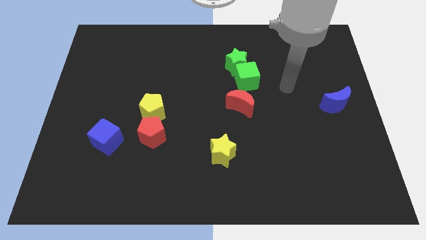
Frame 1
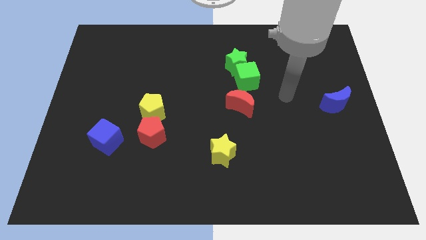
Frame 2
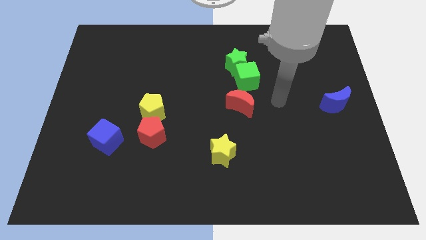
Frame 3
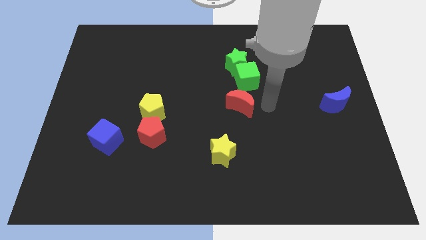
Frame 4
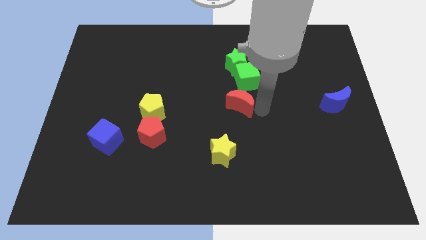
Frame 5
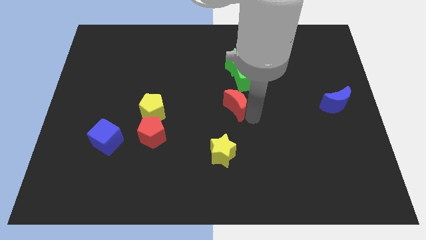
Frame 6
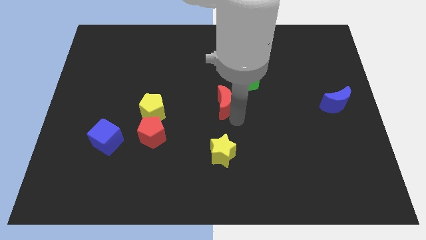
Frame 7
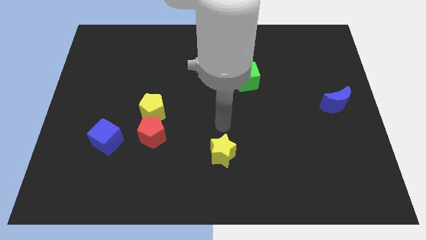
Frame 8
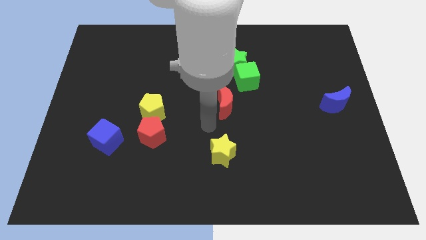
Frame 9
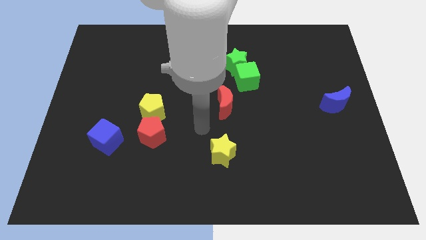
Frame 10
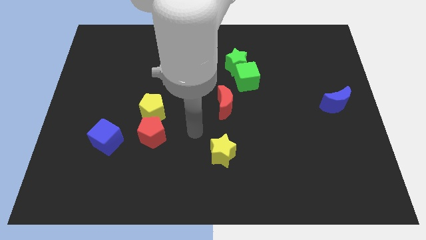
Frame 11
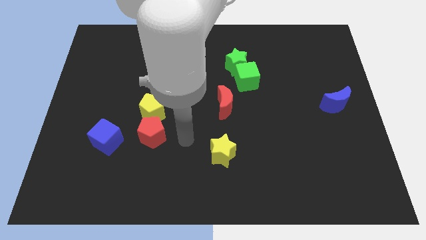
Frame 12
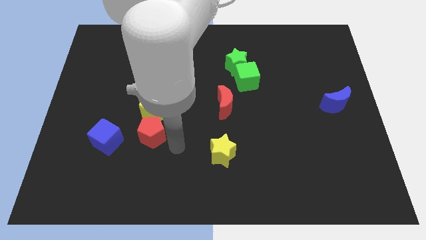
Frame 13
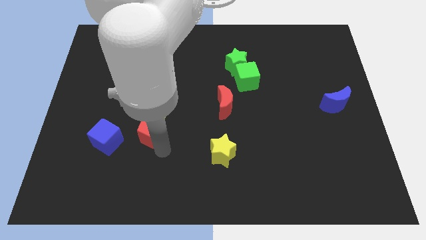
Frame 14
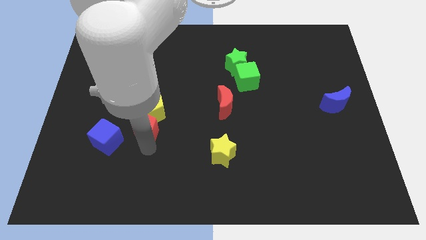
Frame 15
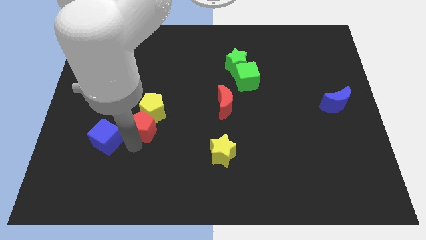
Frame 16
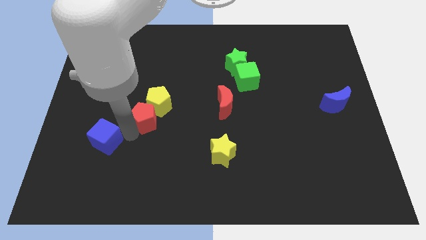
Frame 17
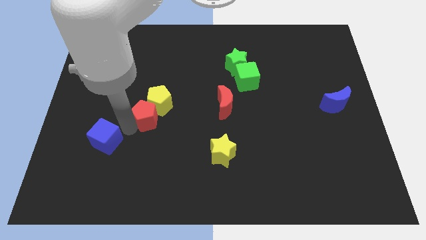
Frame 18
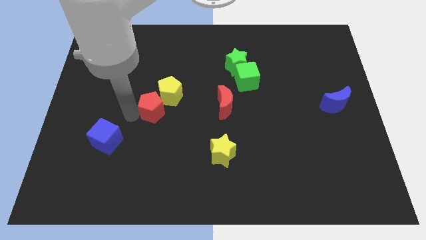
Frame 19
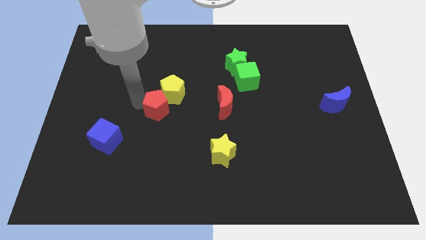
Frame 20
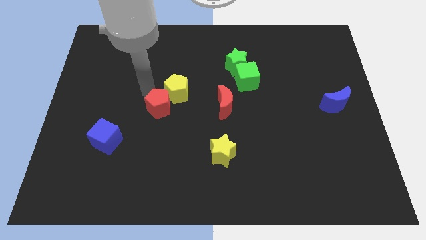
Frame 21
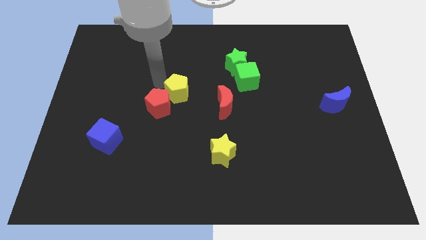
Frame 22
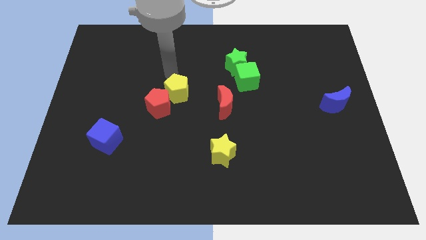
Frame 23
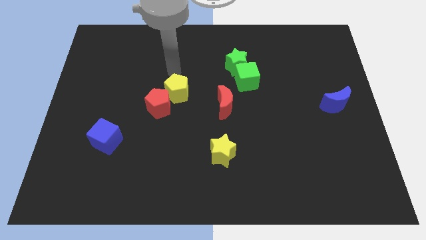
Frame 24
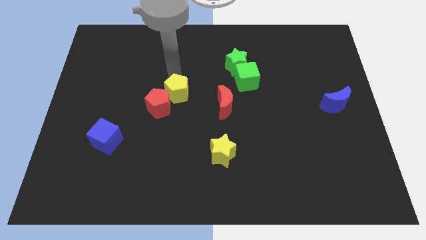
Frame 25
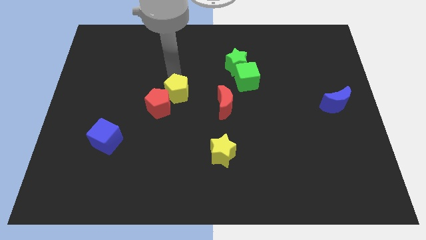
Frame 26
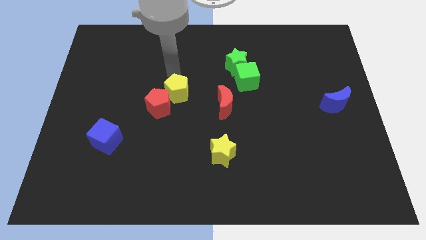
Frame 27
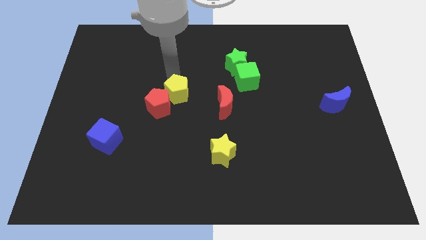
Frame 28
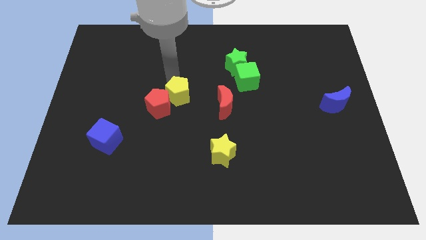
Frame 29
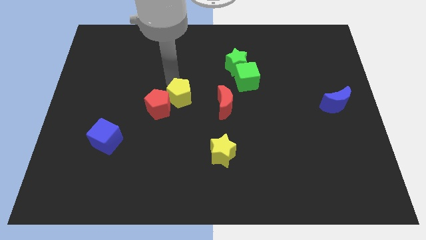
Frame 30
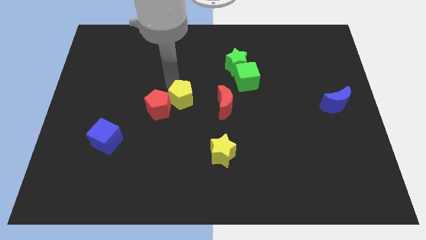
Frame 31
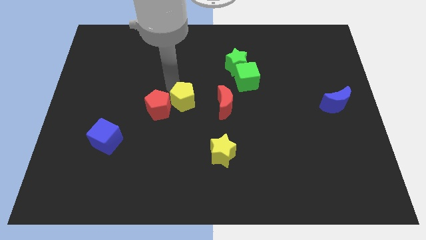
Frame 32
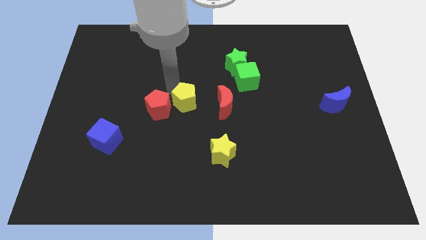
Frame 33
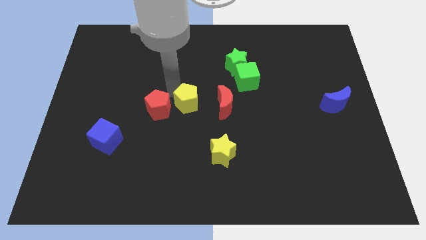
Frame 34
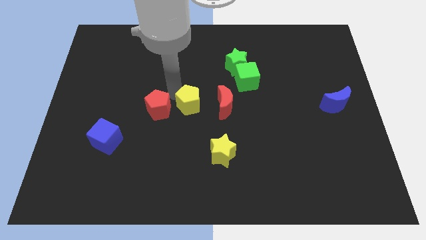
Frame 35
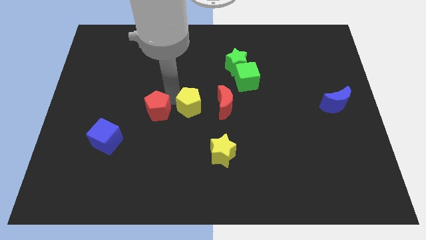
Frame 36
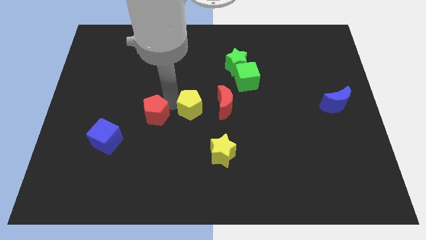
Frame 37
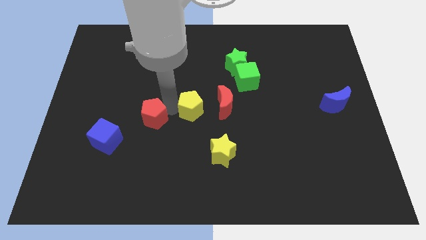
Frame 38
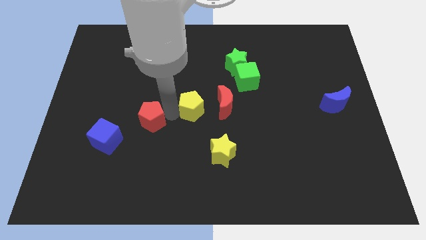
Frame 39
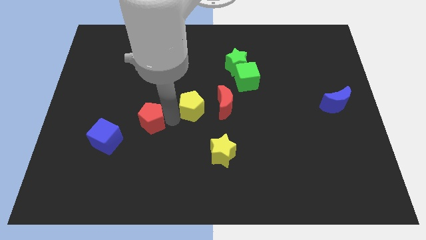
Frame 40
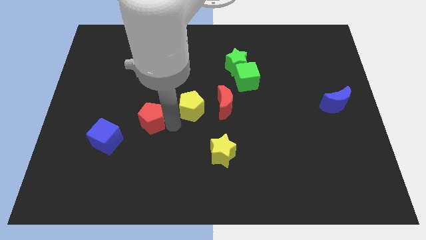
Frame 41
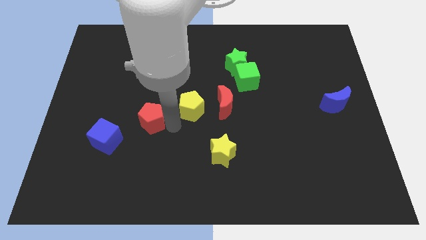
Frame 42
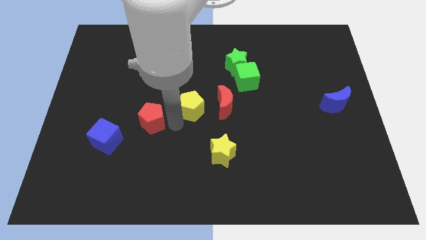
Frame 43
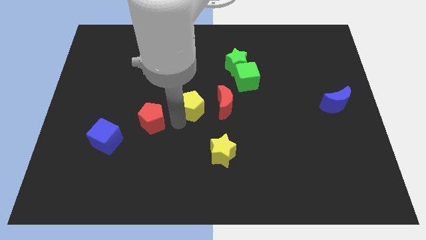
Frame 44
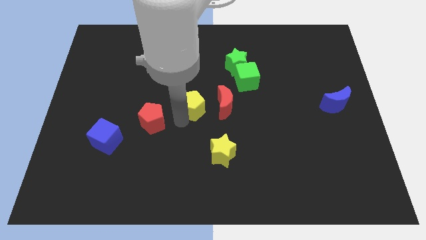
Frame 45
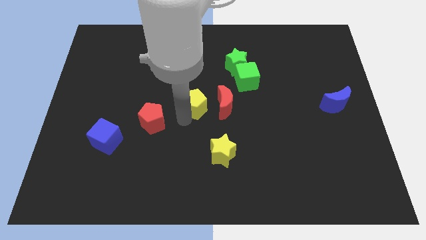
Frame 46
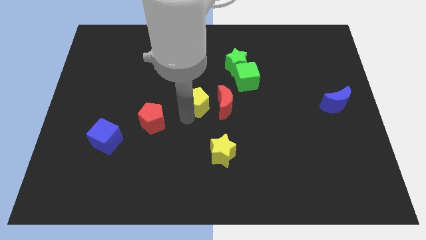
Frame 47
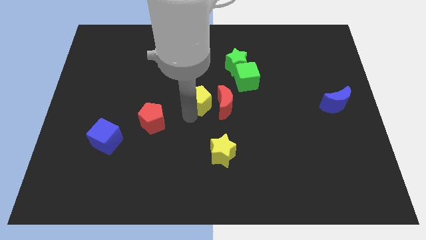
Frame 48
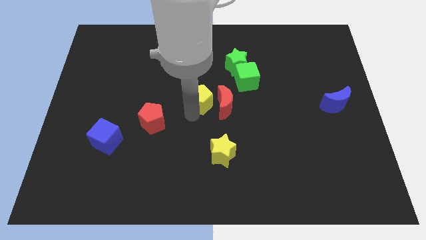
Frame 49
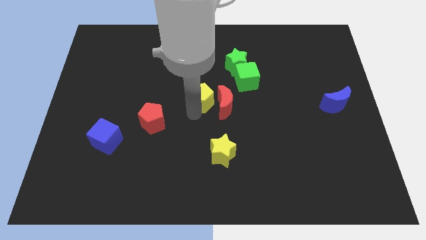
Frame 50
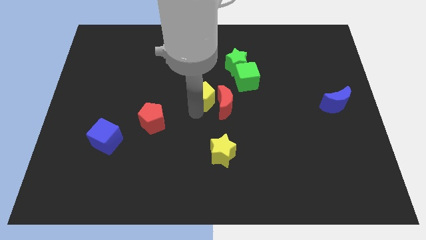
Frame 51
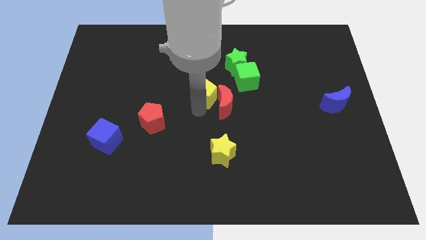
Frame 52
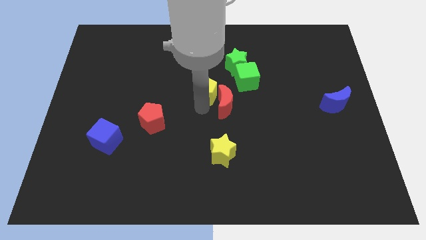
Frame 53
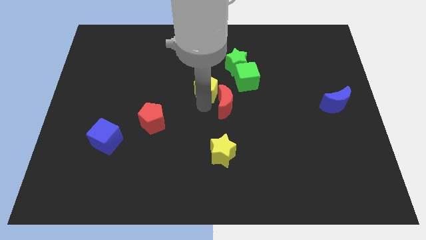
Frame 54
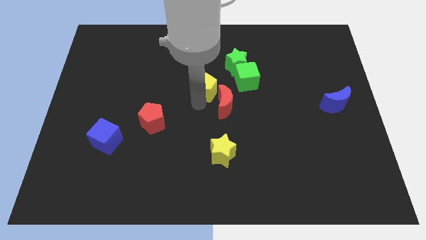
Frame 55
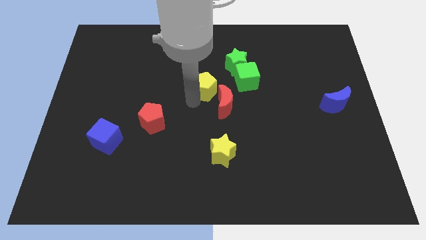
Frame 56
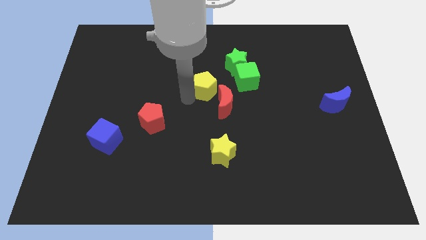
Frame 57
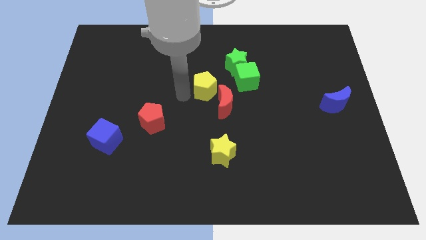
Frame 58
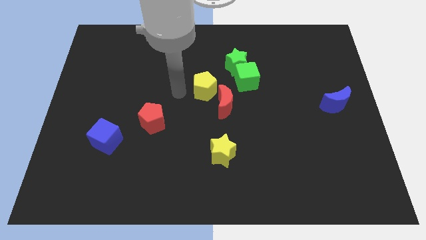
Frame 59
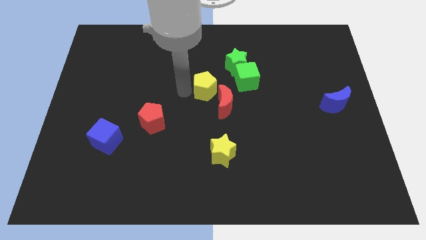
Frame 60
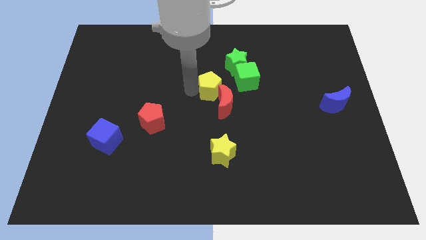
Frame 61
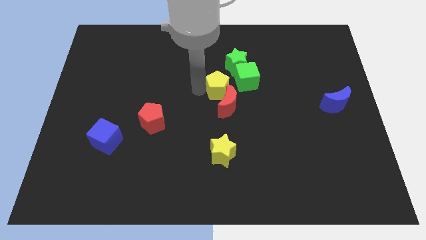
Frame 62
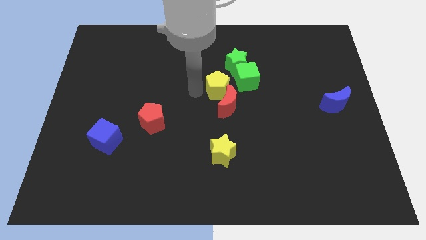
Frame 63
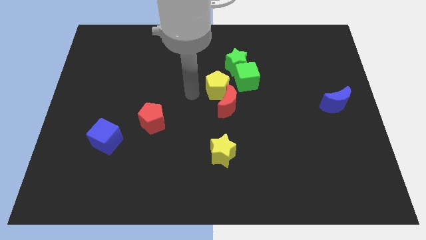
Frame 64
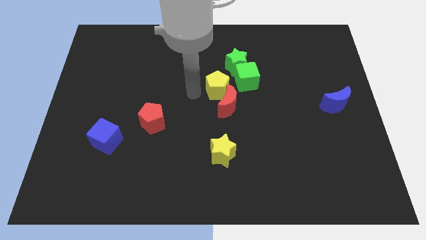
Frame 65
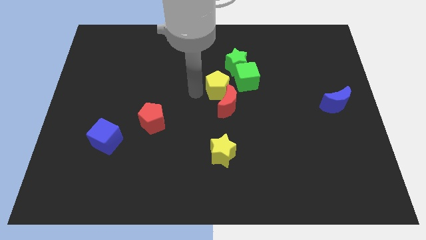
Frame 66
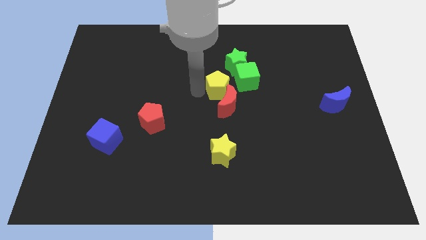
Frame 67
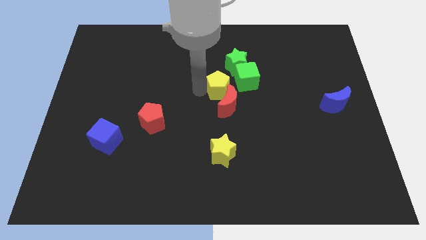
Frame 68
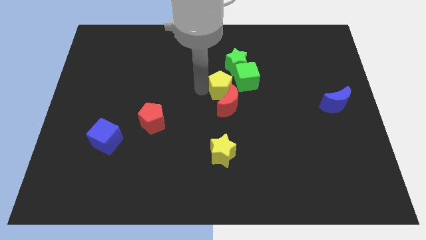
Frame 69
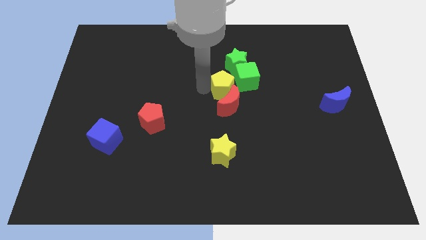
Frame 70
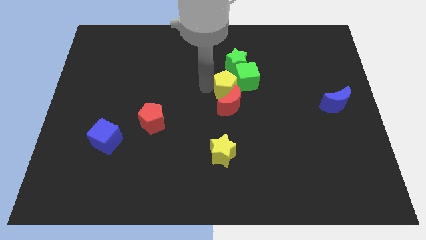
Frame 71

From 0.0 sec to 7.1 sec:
move the yellow pentagon close to the green cube

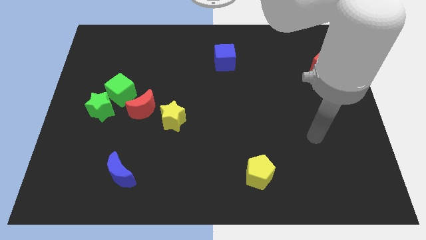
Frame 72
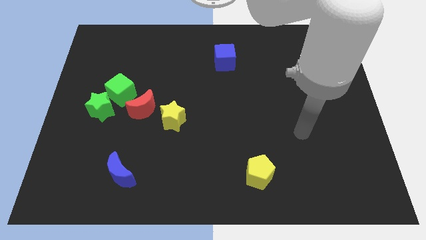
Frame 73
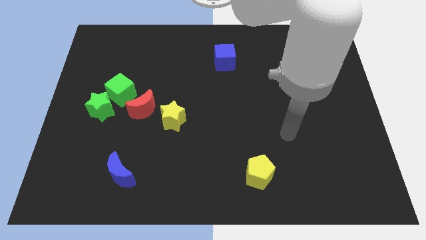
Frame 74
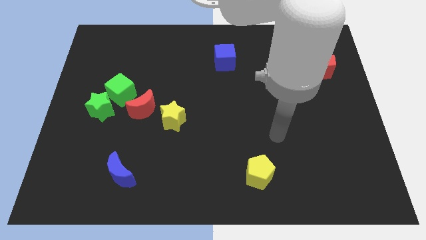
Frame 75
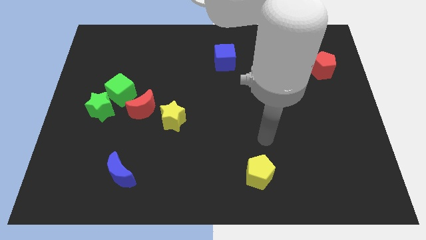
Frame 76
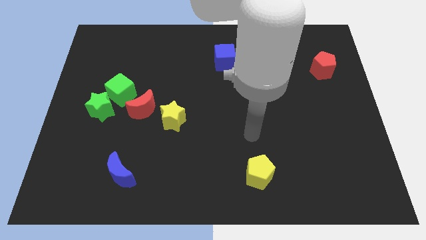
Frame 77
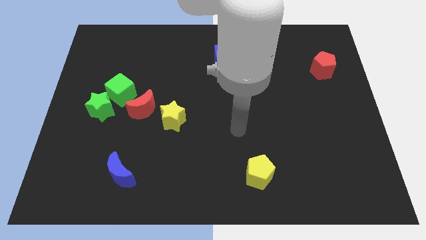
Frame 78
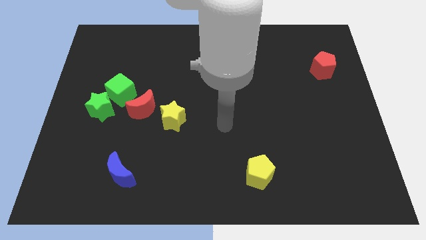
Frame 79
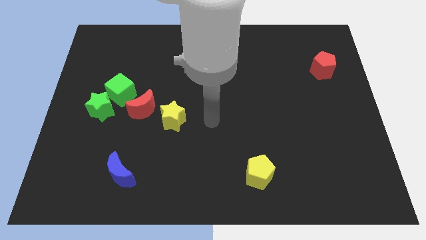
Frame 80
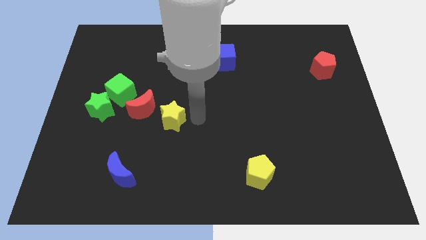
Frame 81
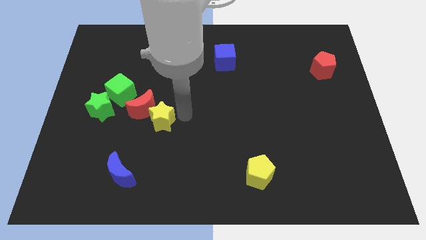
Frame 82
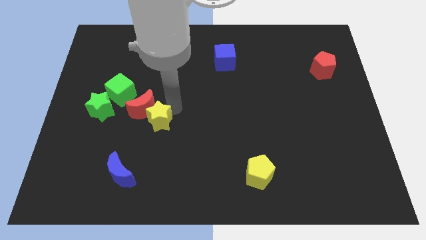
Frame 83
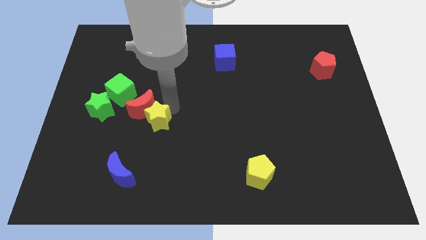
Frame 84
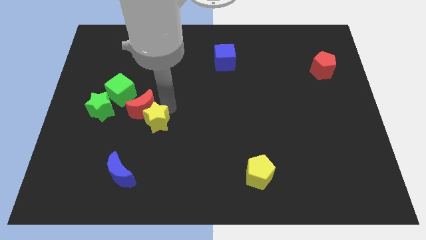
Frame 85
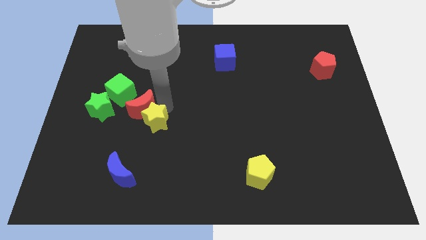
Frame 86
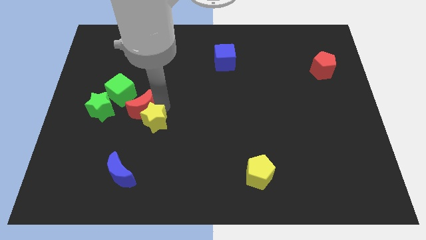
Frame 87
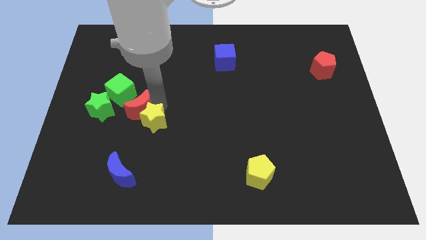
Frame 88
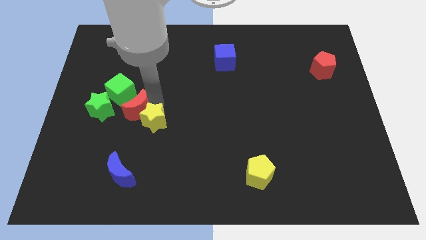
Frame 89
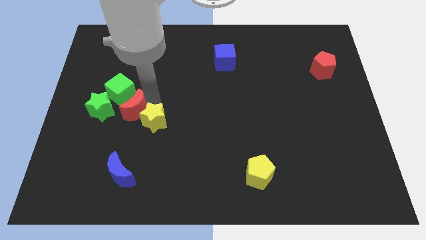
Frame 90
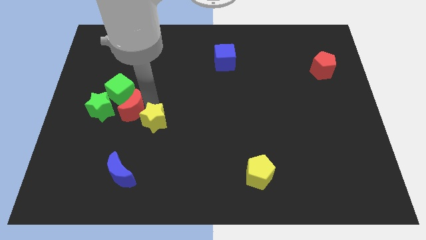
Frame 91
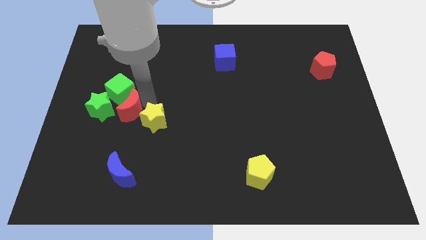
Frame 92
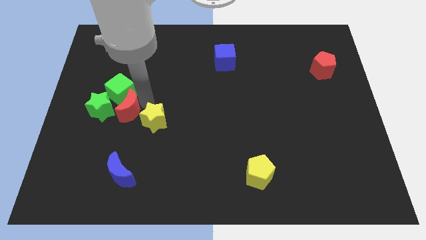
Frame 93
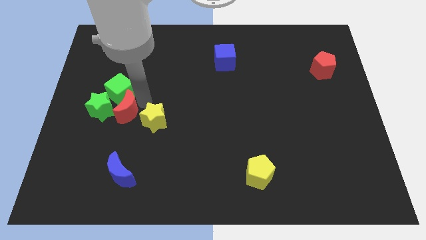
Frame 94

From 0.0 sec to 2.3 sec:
slide the red moon close to the green star
